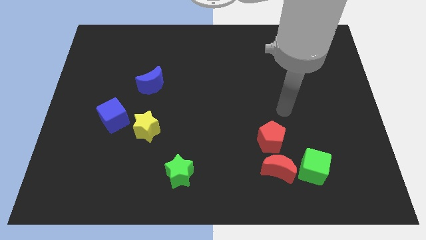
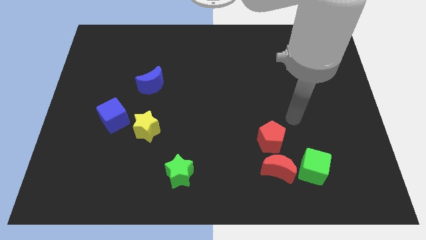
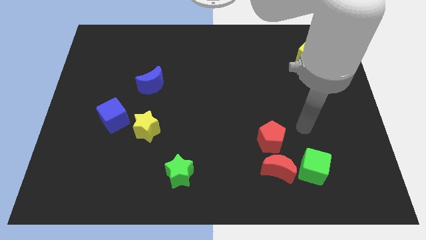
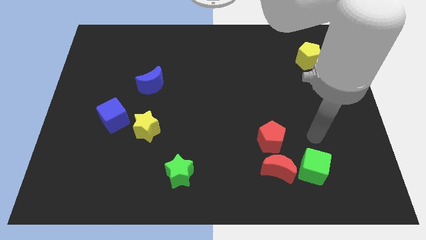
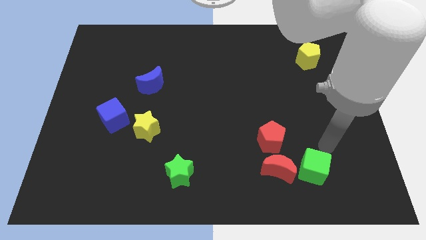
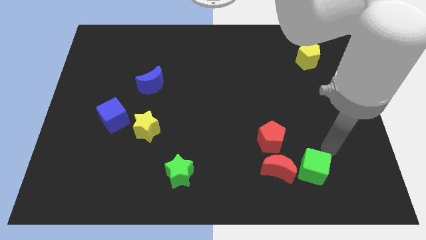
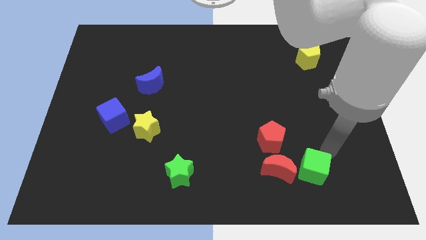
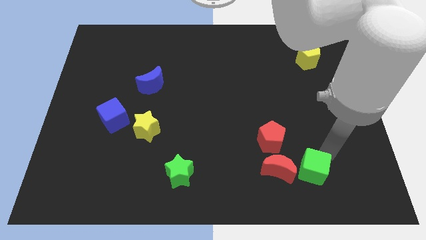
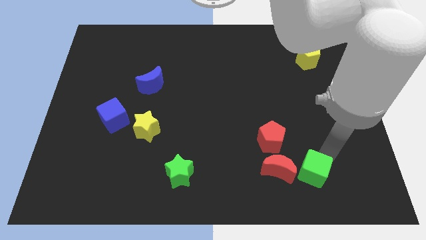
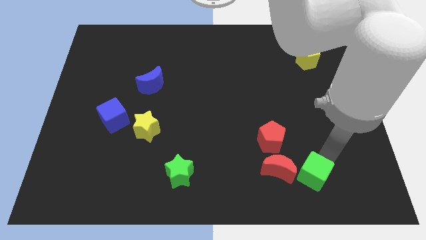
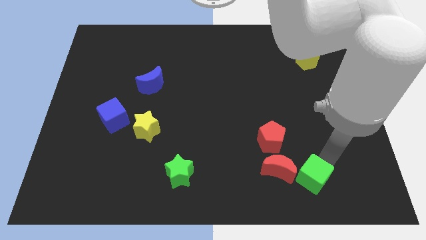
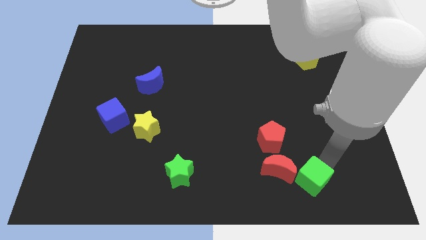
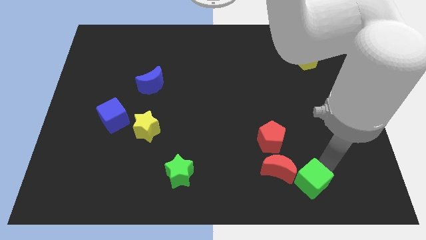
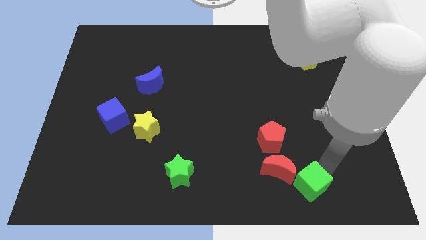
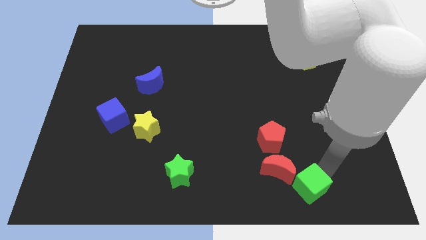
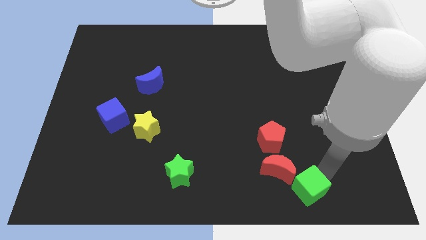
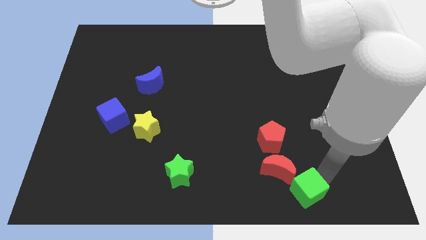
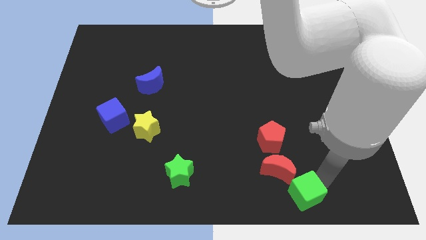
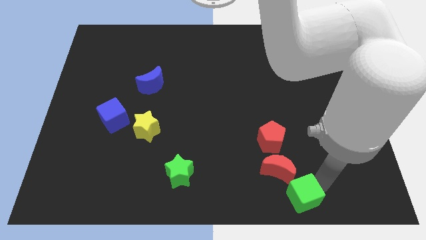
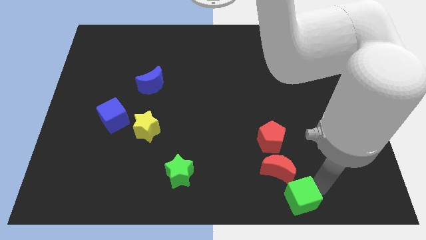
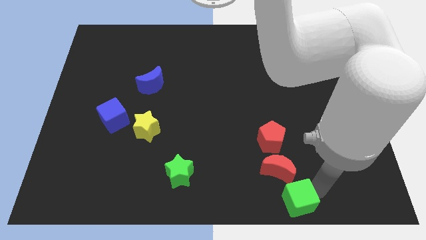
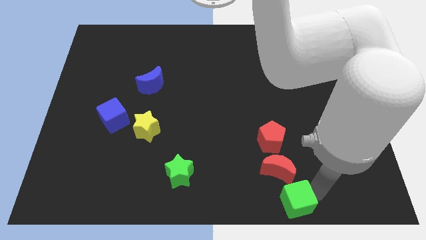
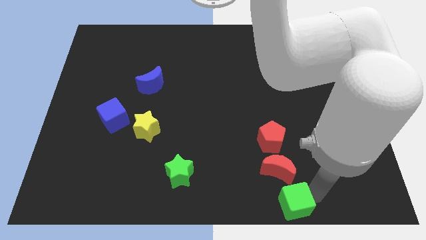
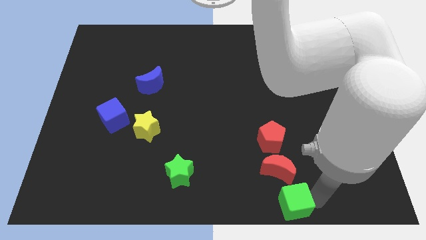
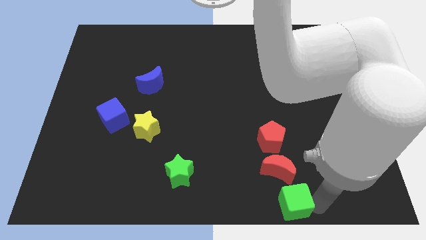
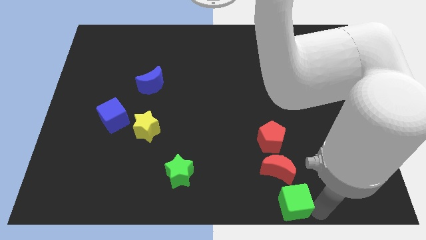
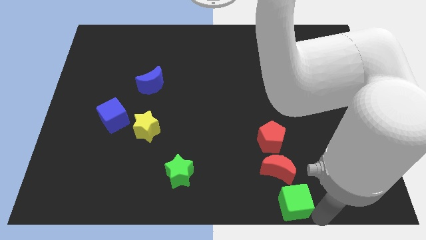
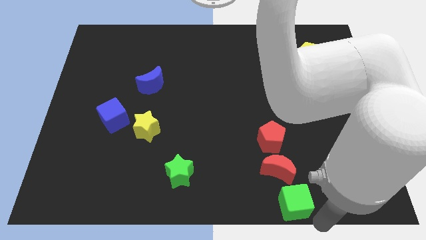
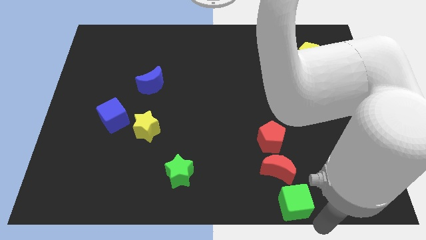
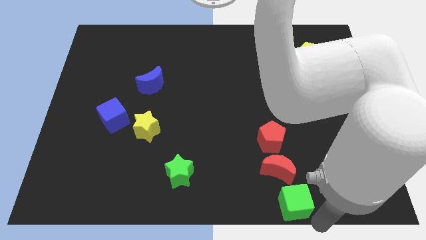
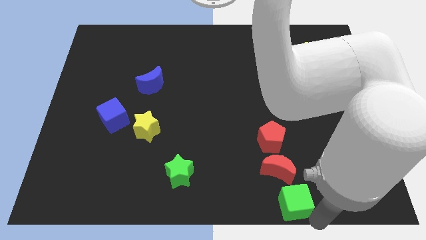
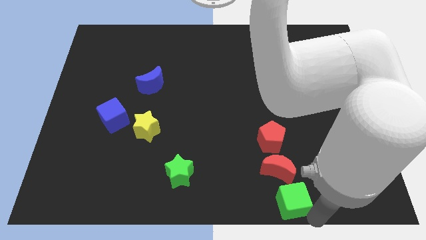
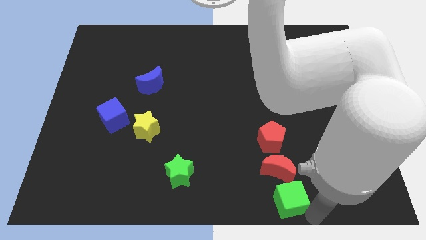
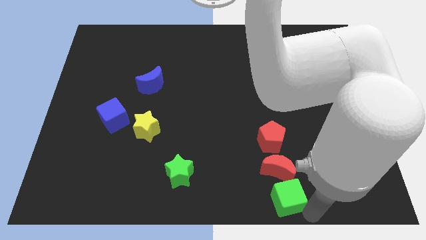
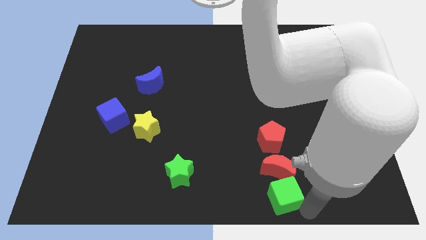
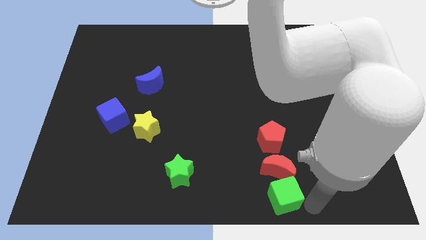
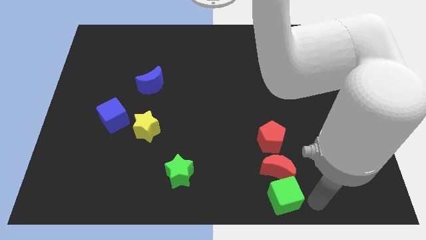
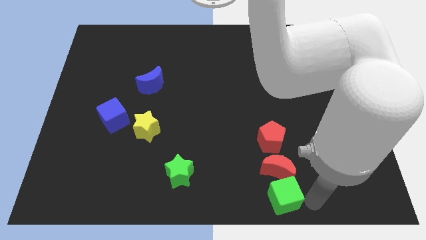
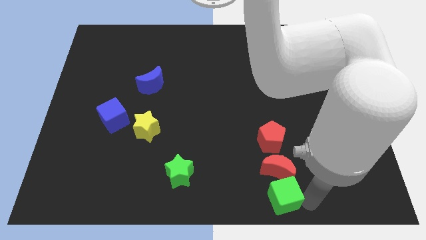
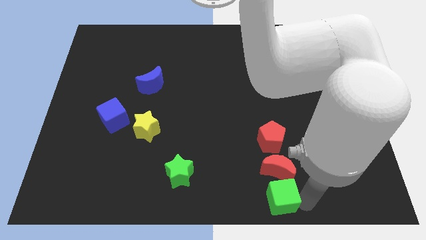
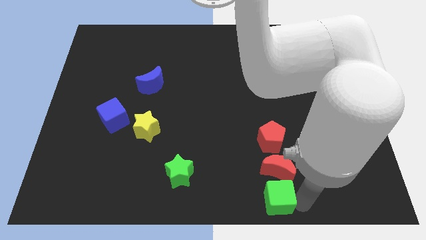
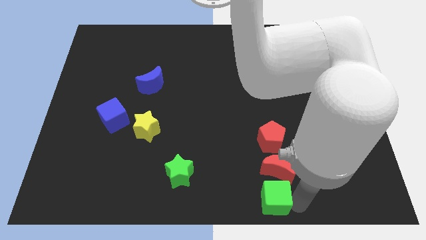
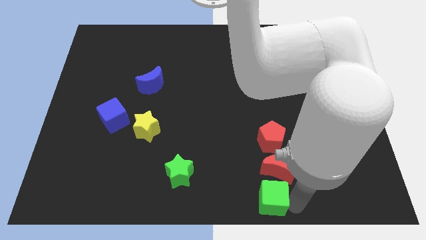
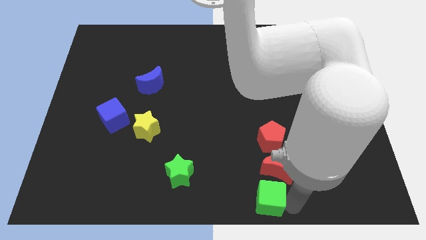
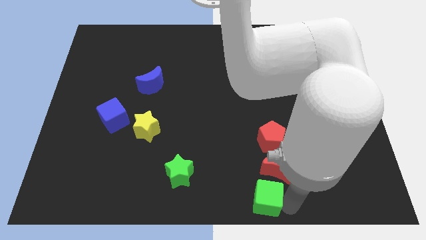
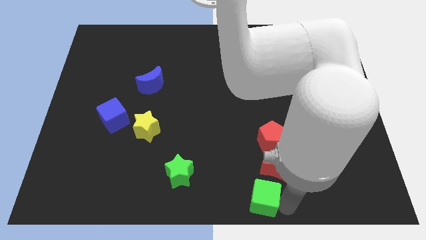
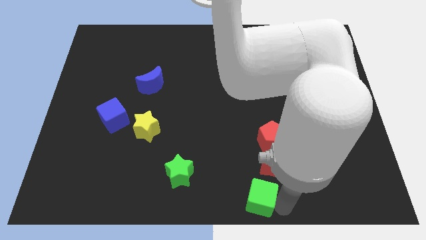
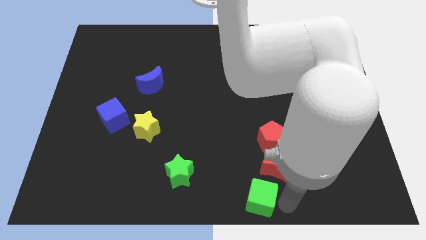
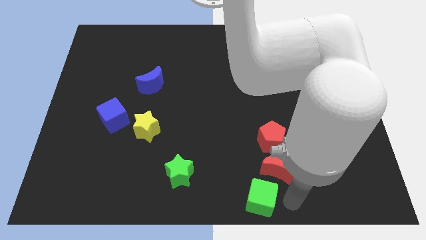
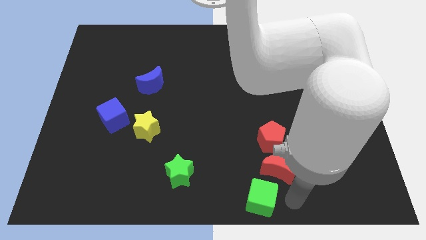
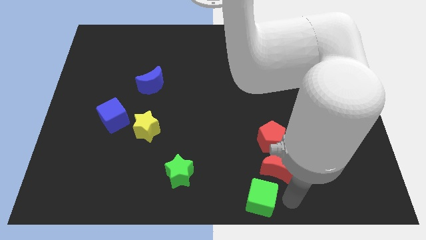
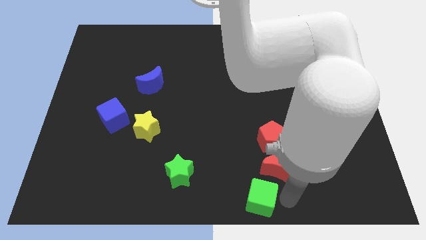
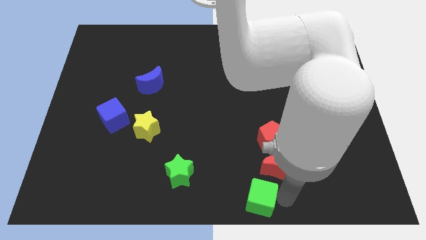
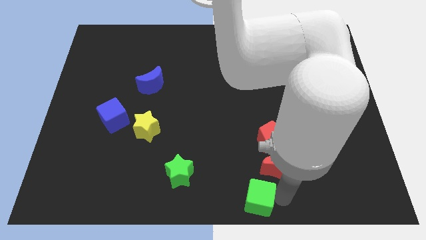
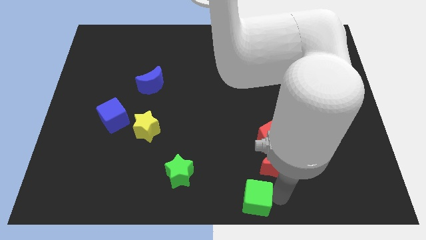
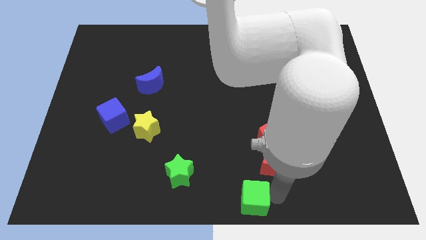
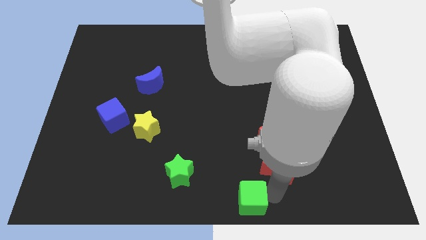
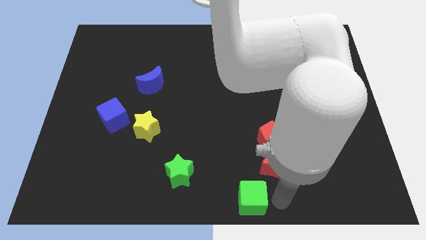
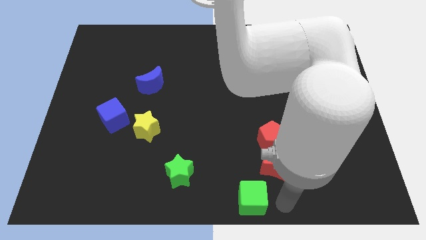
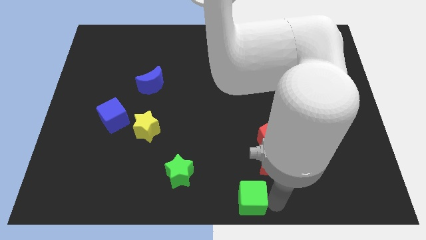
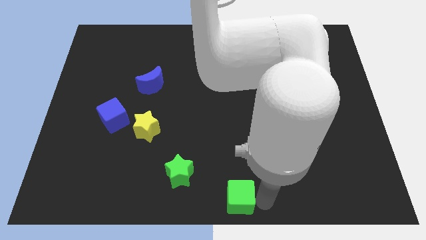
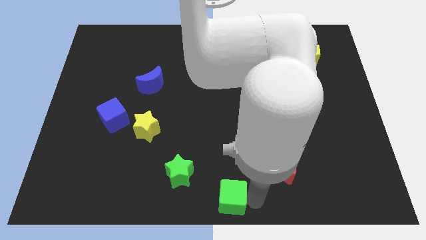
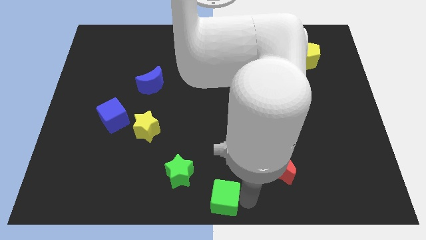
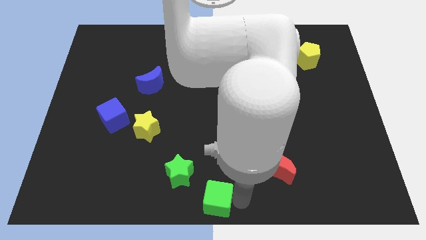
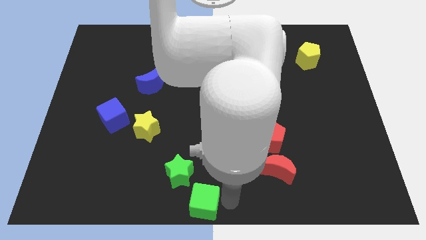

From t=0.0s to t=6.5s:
move the green cube to the left

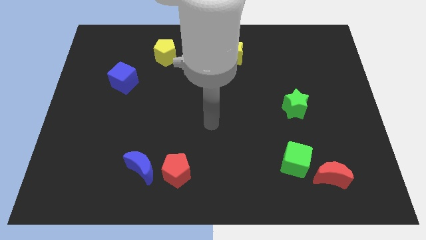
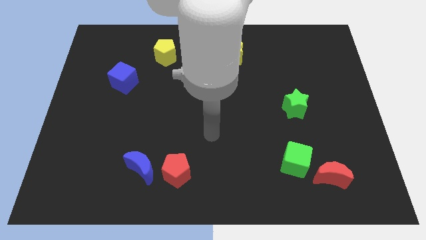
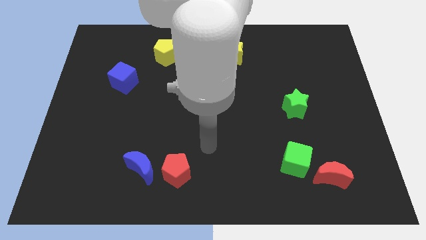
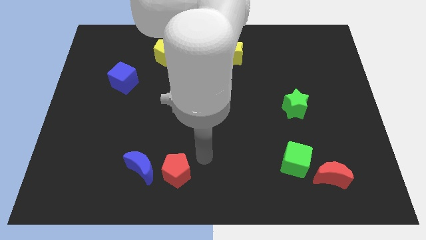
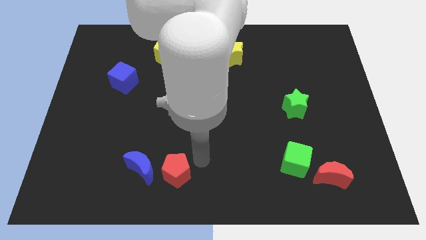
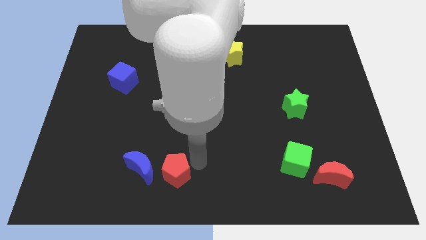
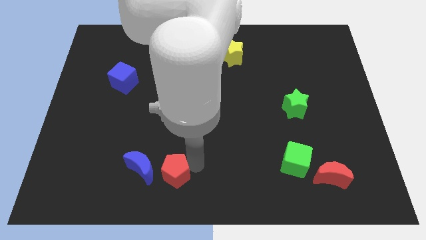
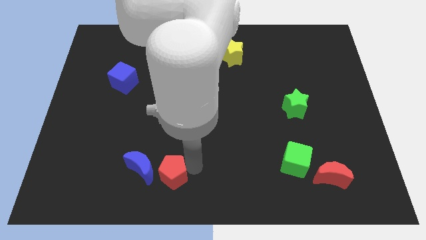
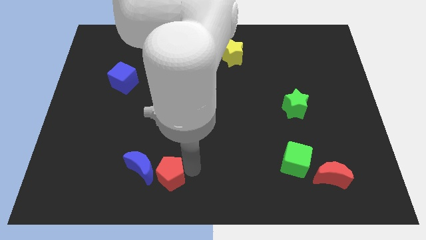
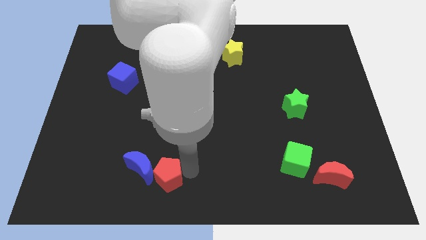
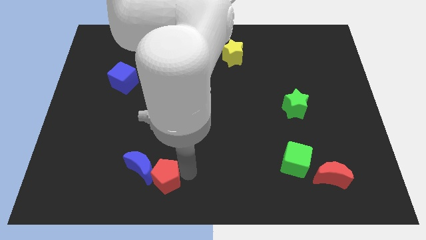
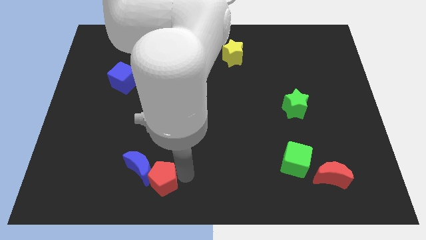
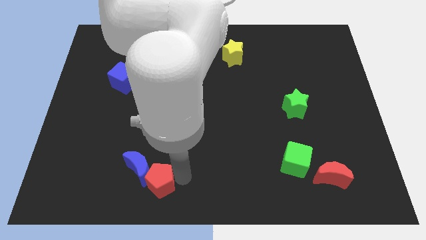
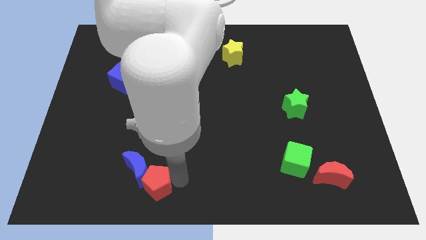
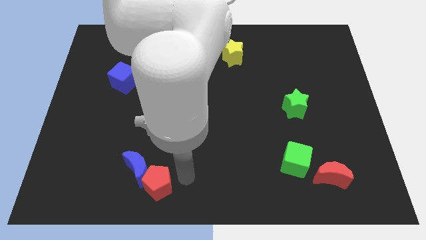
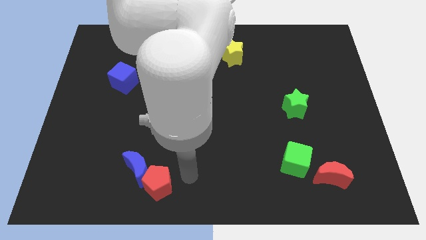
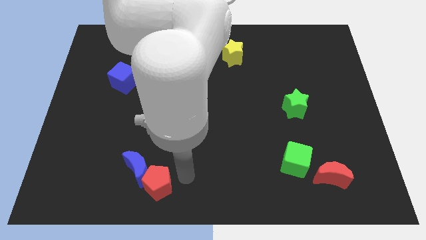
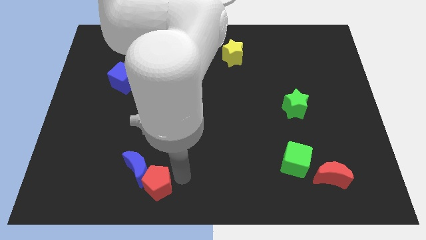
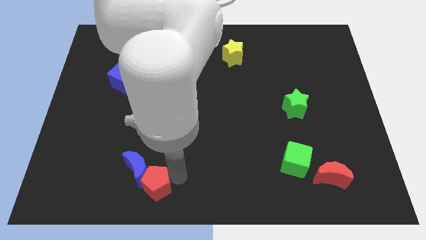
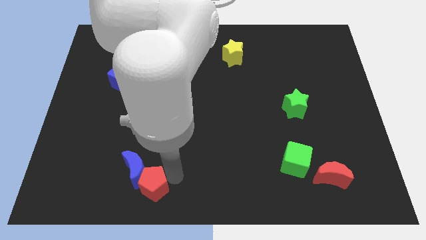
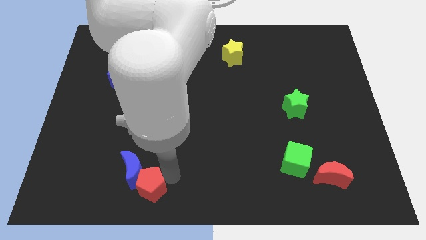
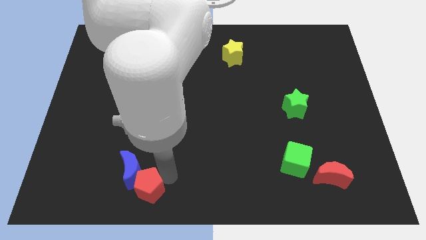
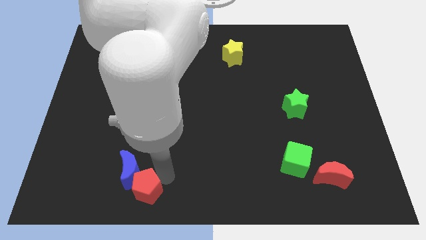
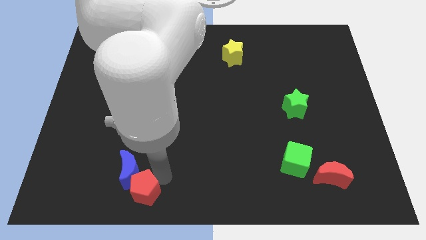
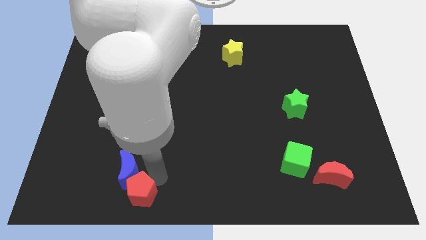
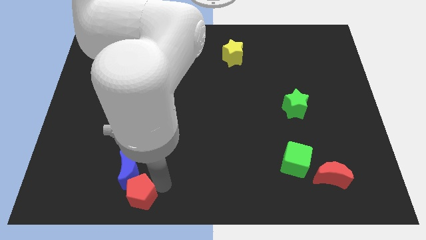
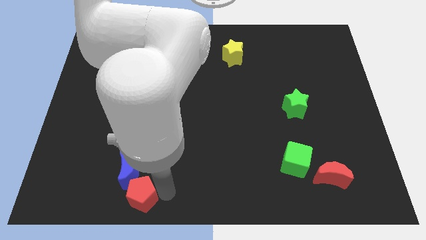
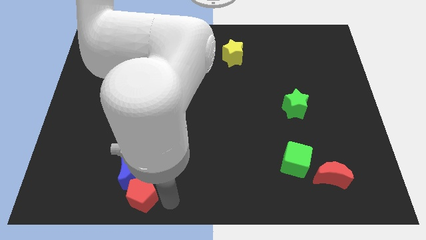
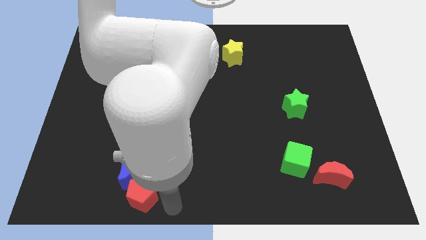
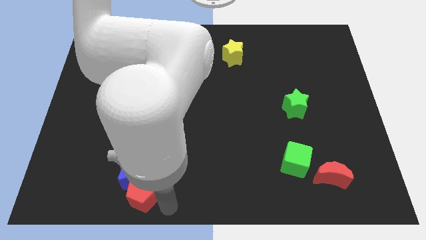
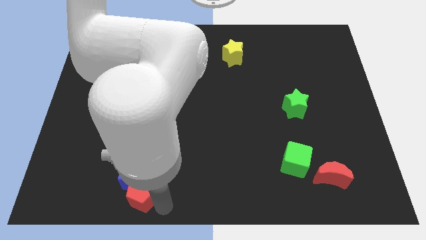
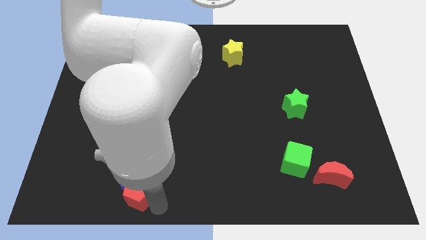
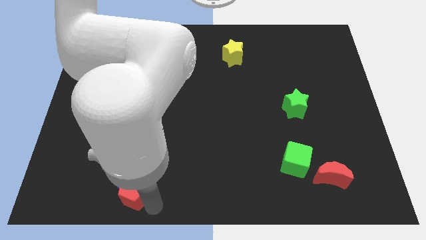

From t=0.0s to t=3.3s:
slide the red pentagon a bit to the left
